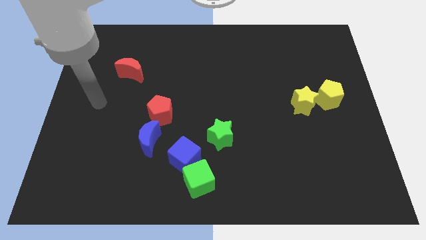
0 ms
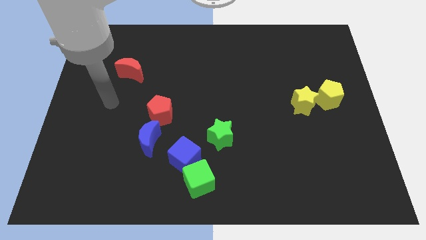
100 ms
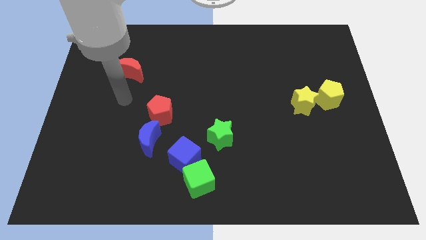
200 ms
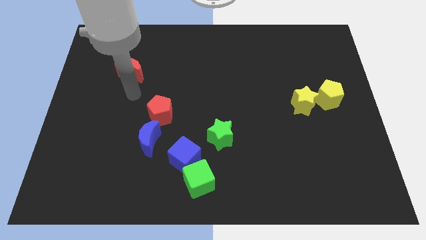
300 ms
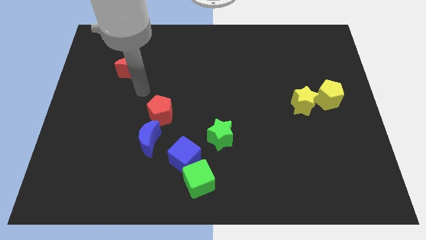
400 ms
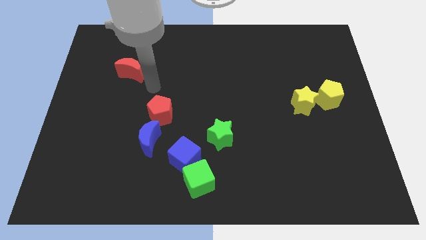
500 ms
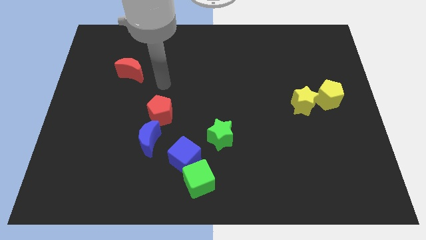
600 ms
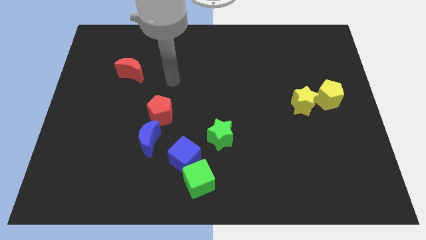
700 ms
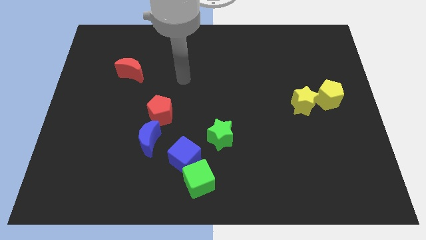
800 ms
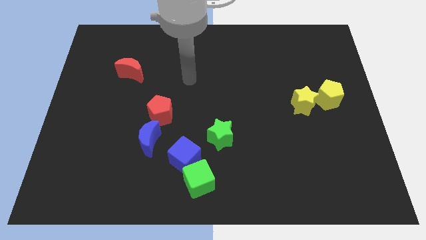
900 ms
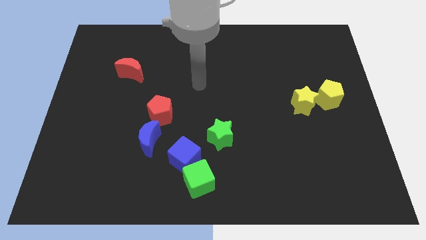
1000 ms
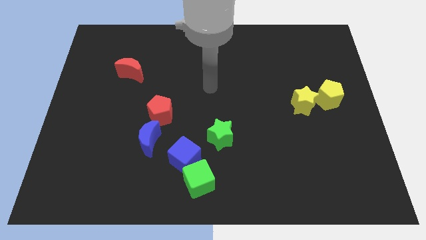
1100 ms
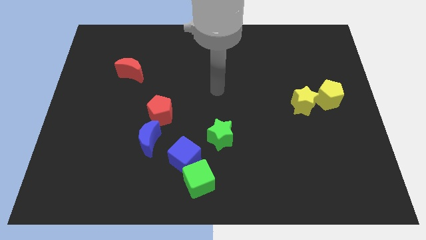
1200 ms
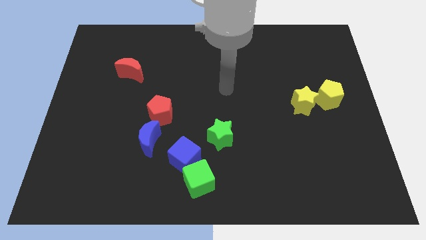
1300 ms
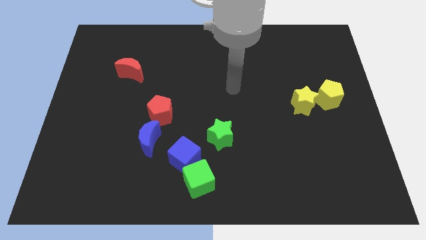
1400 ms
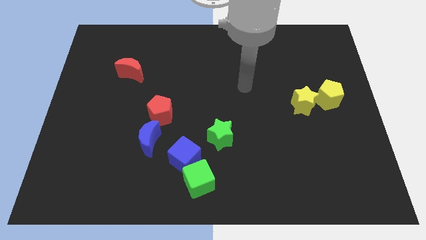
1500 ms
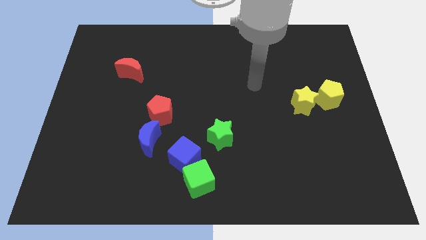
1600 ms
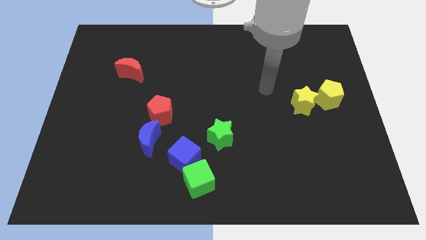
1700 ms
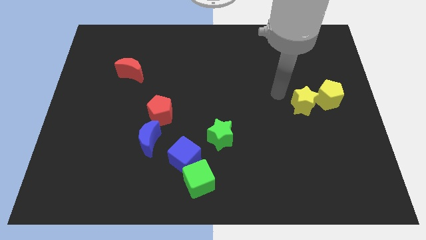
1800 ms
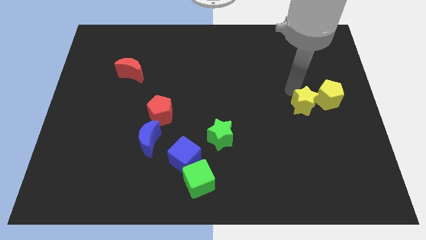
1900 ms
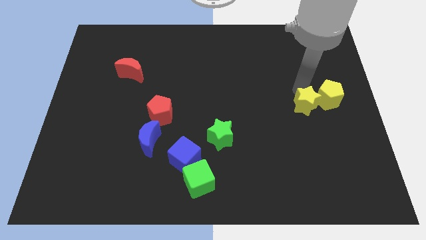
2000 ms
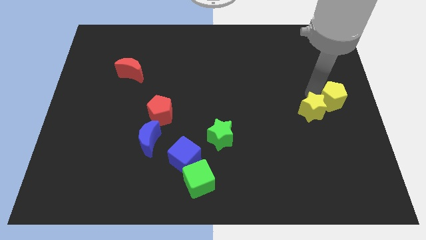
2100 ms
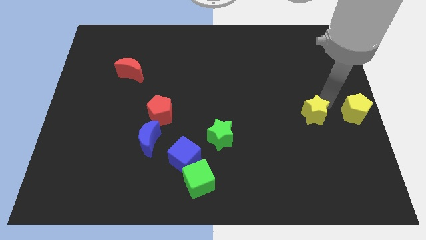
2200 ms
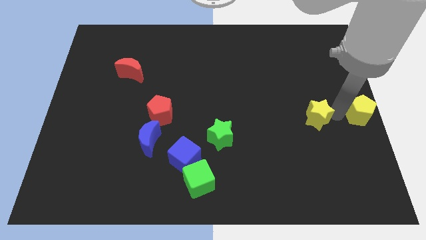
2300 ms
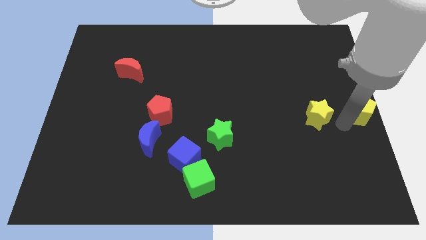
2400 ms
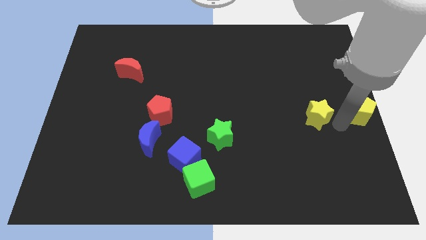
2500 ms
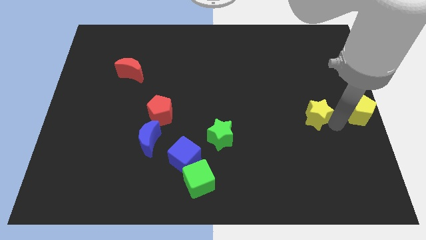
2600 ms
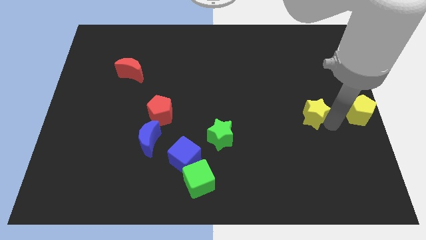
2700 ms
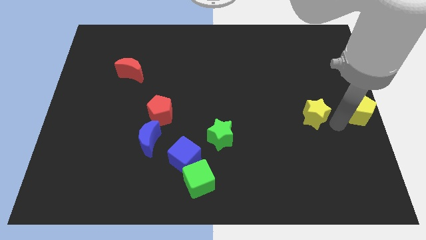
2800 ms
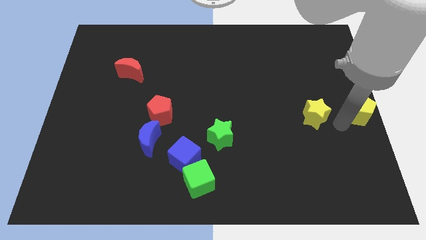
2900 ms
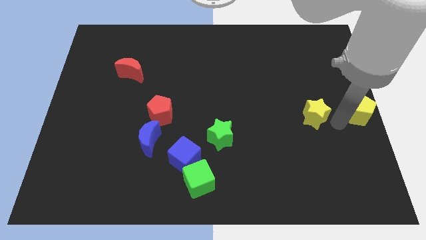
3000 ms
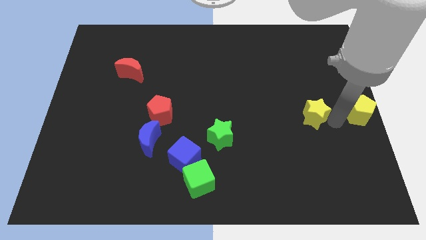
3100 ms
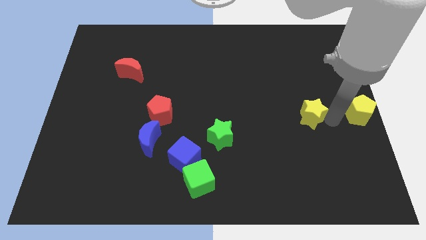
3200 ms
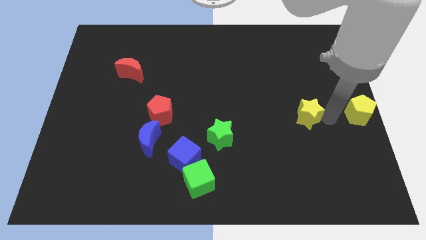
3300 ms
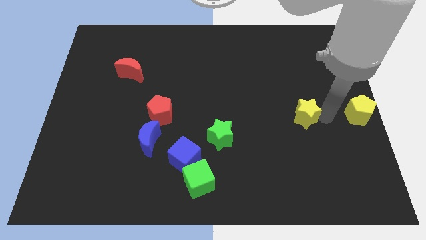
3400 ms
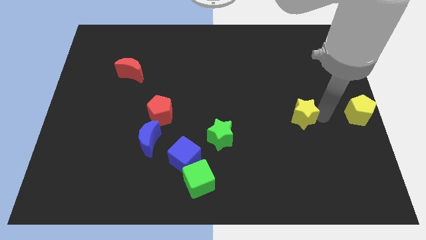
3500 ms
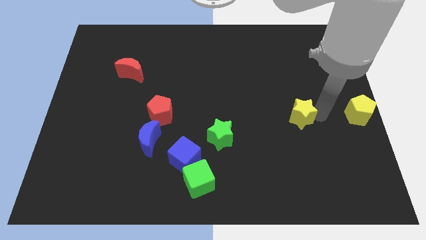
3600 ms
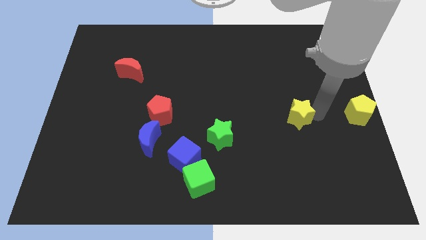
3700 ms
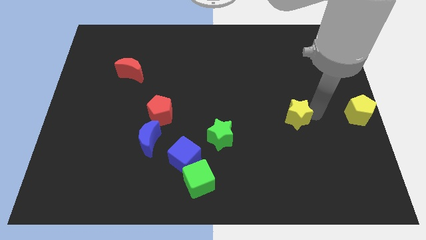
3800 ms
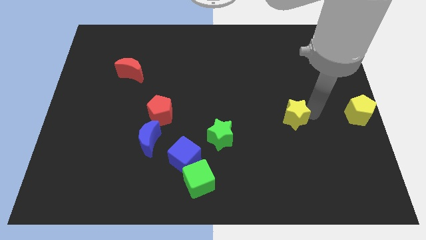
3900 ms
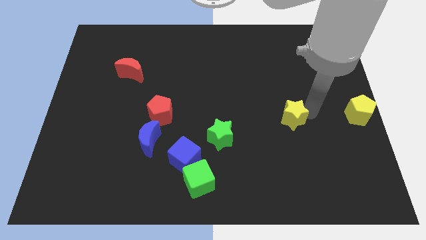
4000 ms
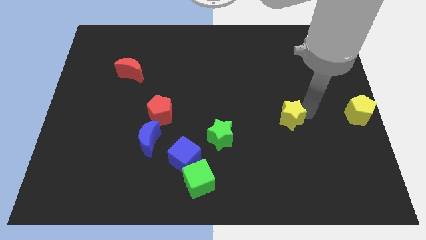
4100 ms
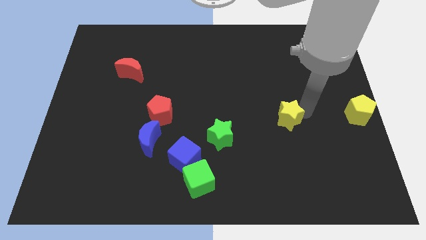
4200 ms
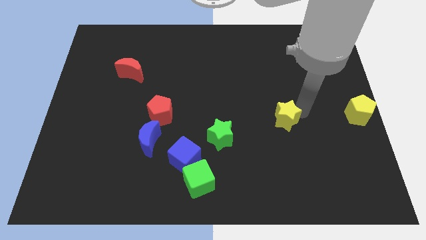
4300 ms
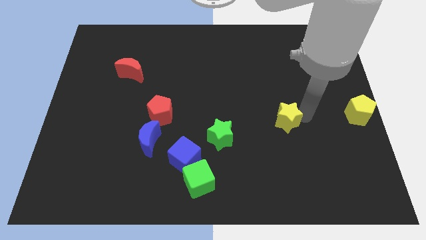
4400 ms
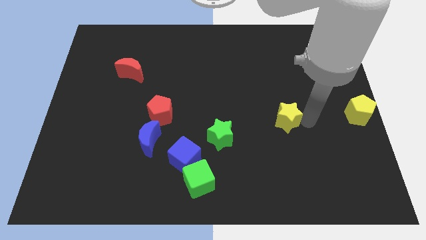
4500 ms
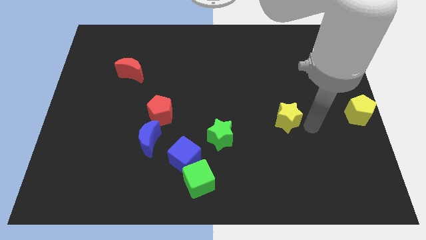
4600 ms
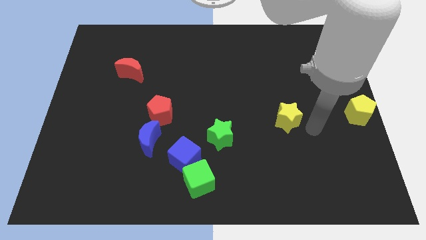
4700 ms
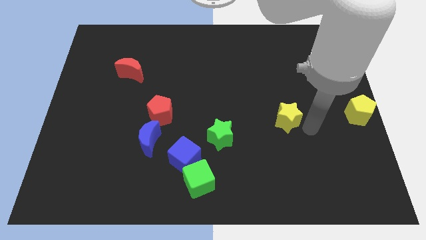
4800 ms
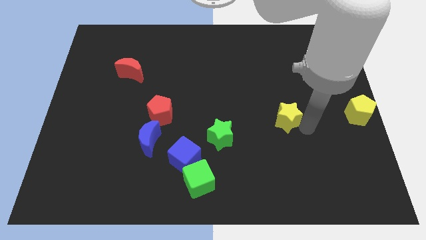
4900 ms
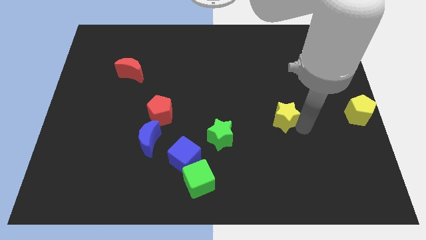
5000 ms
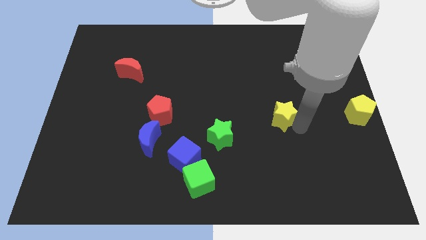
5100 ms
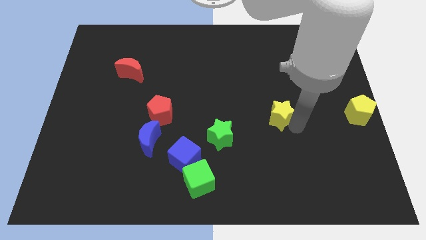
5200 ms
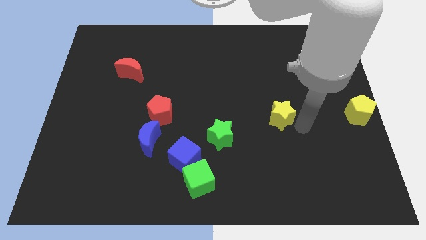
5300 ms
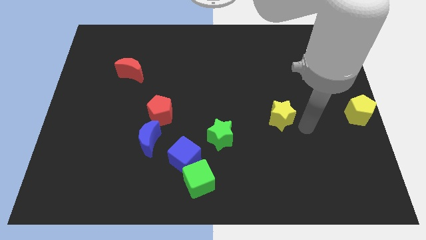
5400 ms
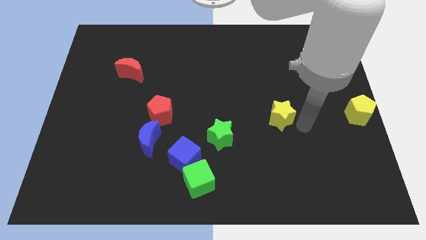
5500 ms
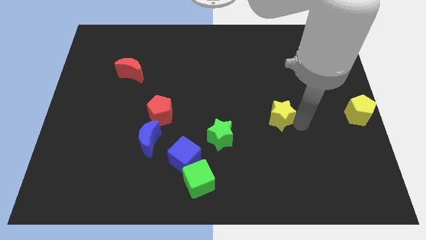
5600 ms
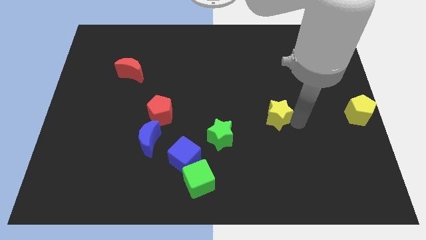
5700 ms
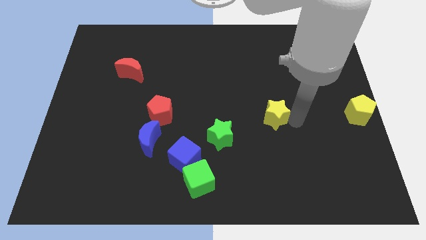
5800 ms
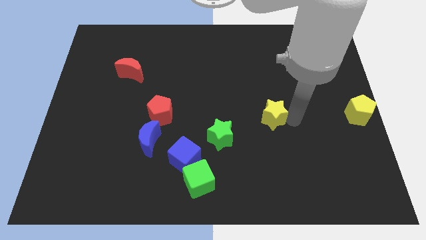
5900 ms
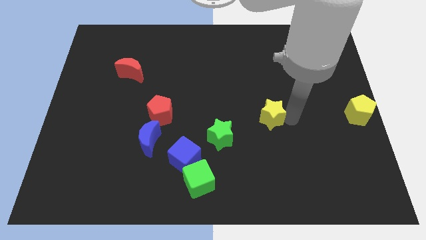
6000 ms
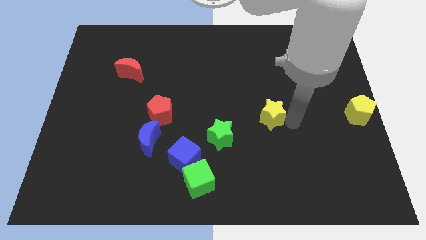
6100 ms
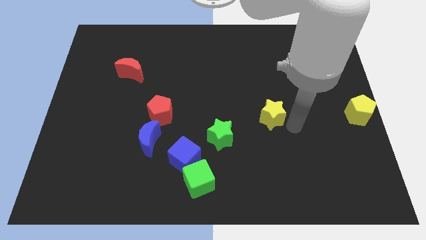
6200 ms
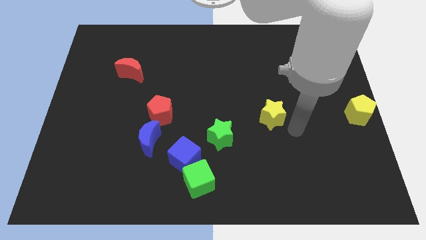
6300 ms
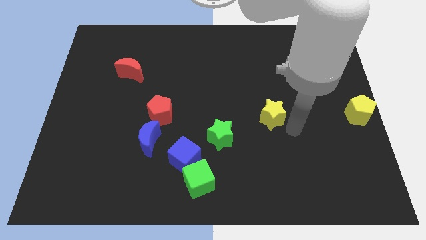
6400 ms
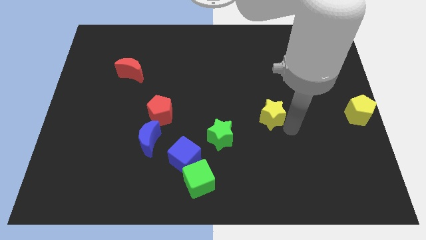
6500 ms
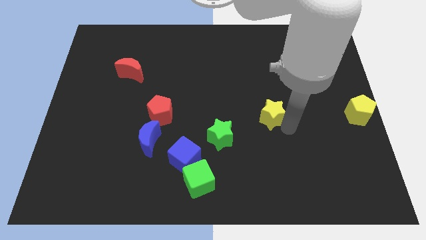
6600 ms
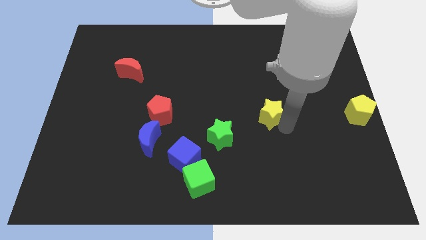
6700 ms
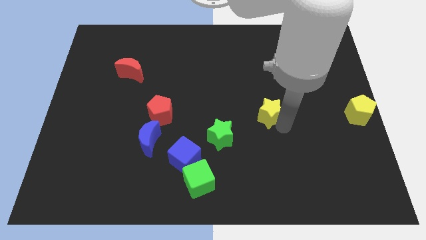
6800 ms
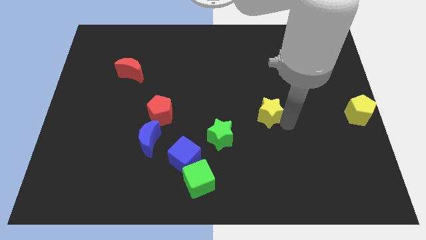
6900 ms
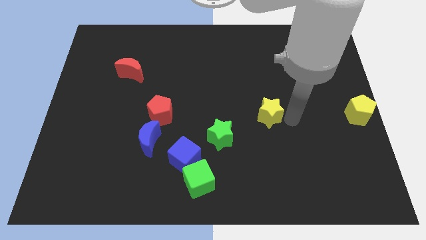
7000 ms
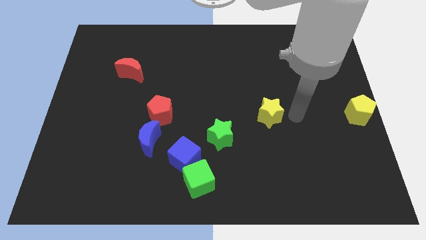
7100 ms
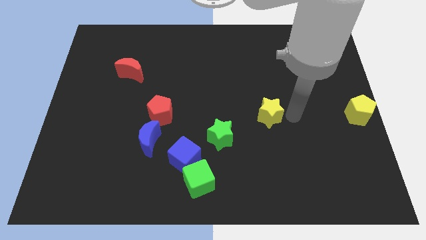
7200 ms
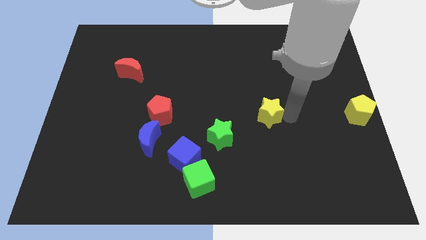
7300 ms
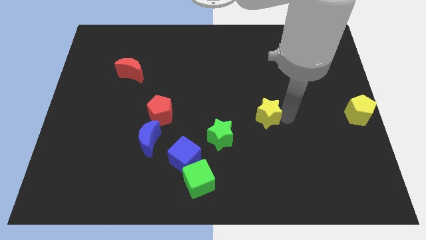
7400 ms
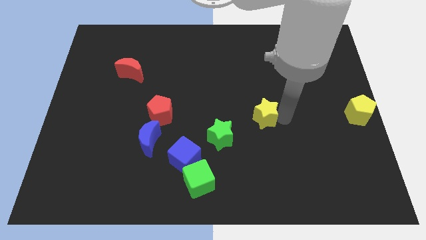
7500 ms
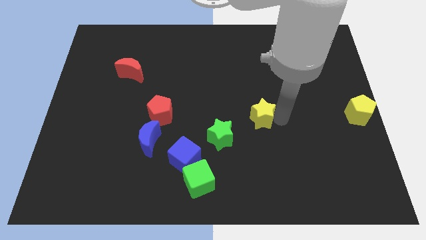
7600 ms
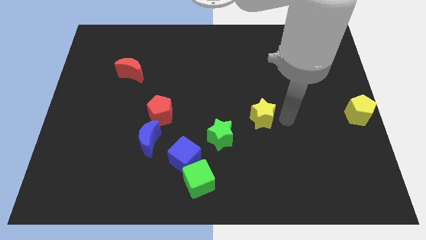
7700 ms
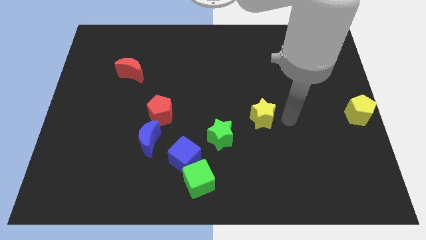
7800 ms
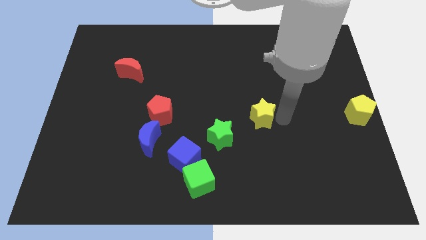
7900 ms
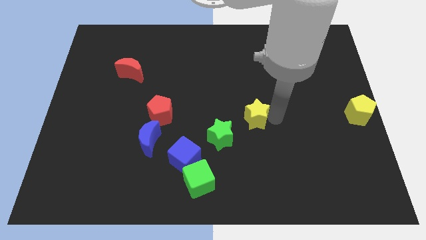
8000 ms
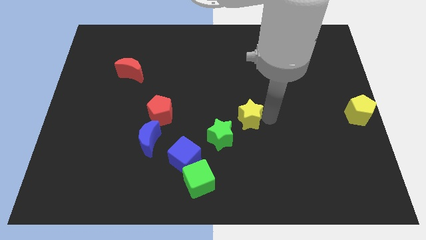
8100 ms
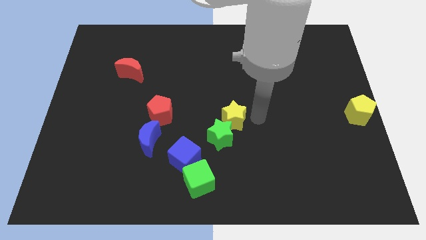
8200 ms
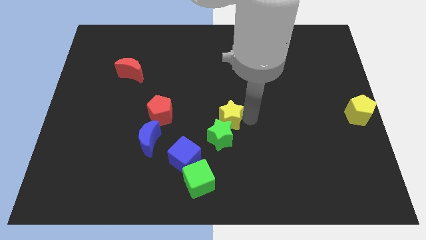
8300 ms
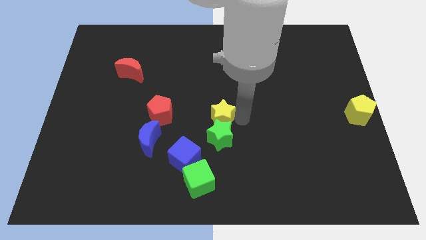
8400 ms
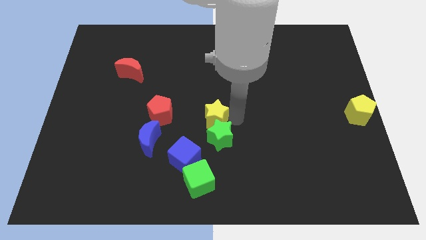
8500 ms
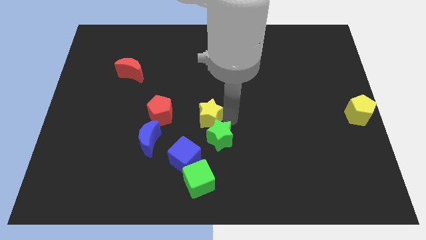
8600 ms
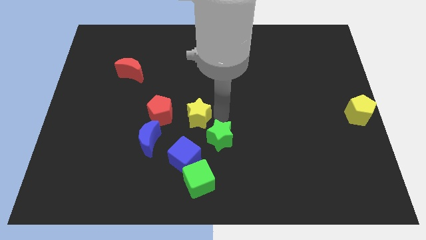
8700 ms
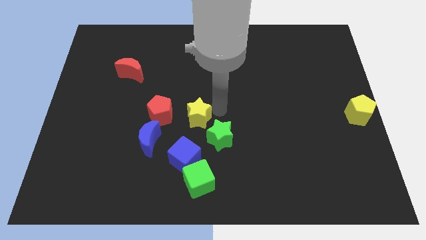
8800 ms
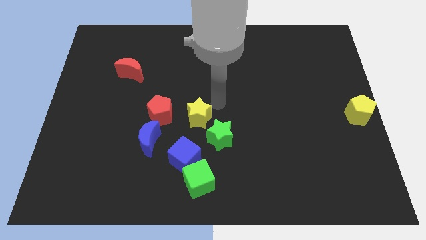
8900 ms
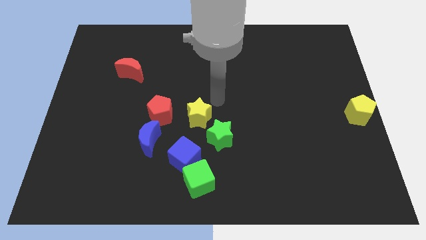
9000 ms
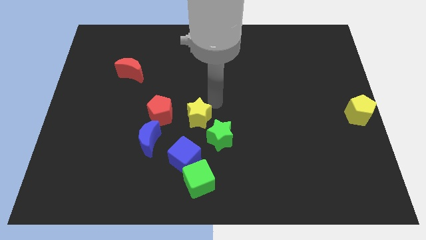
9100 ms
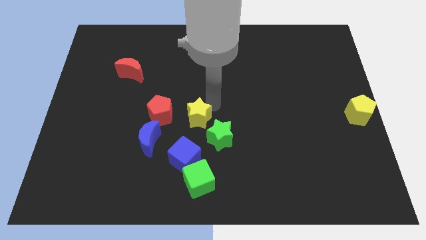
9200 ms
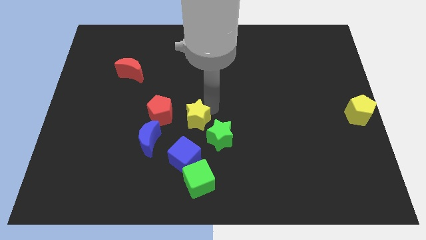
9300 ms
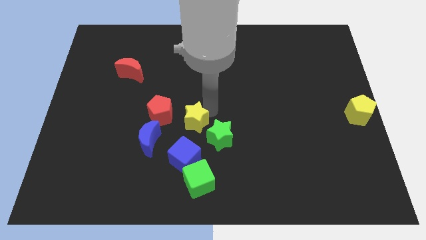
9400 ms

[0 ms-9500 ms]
slide the yellow star left of the green star
